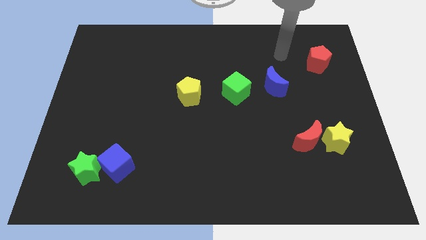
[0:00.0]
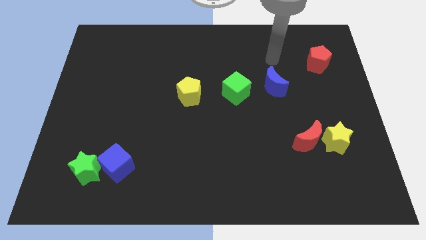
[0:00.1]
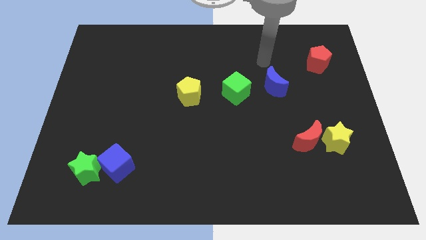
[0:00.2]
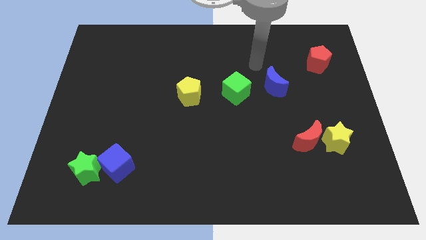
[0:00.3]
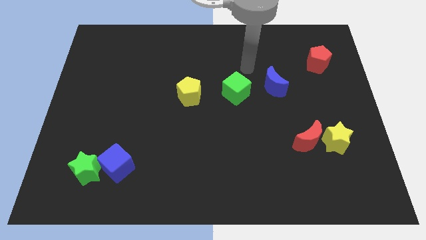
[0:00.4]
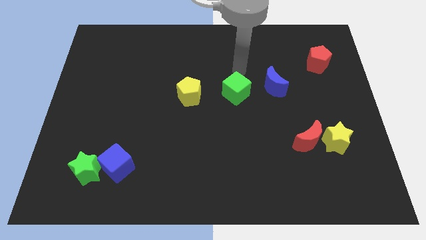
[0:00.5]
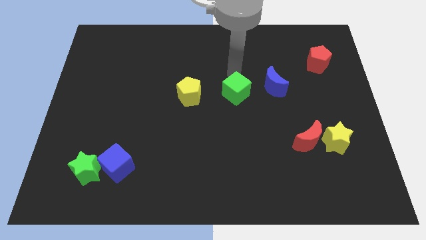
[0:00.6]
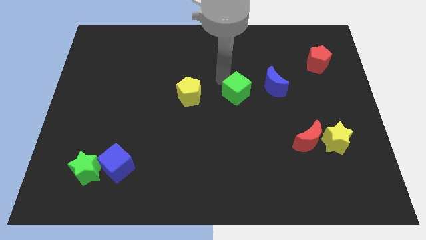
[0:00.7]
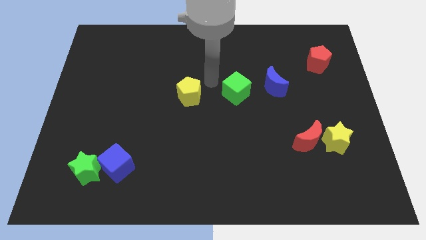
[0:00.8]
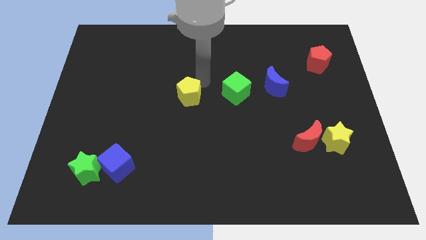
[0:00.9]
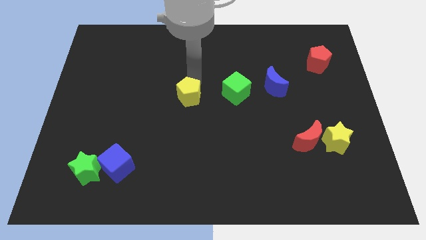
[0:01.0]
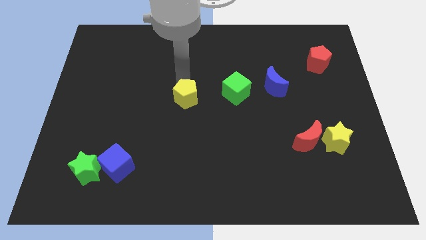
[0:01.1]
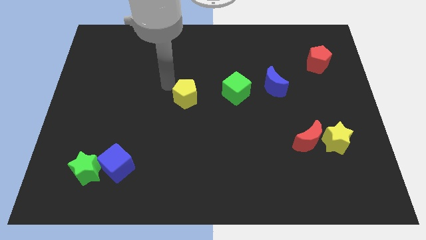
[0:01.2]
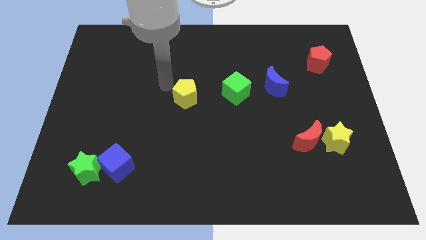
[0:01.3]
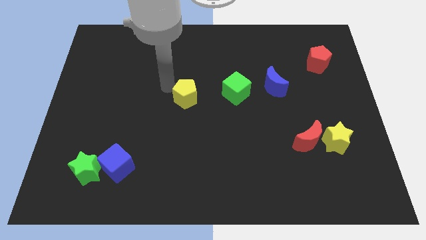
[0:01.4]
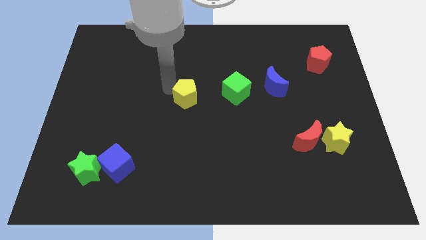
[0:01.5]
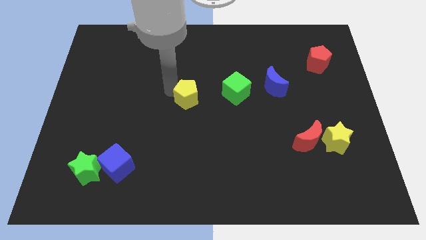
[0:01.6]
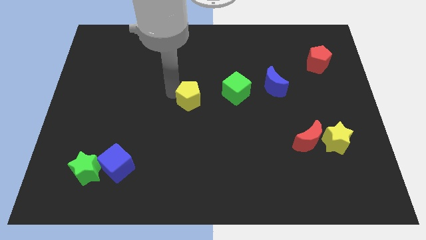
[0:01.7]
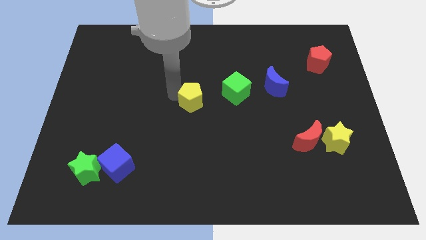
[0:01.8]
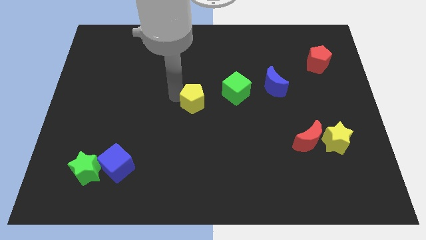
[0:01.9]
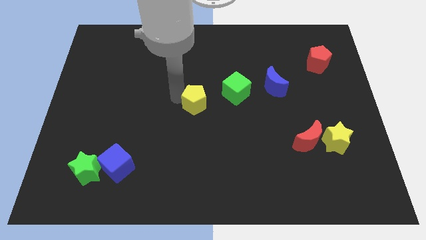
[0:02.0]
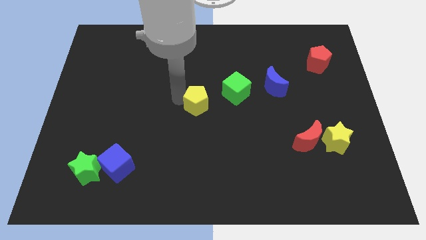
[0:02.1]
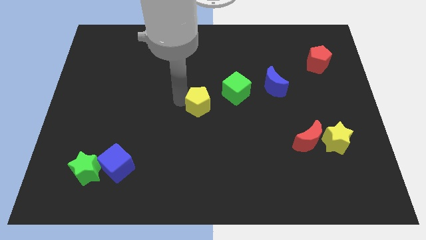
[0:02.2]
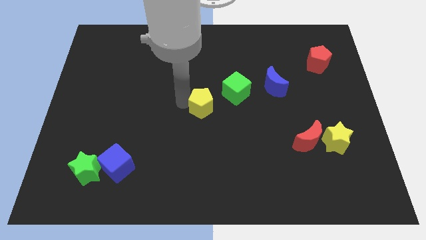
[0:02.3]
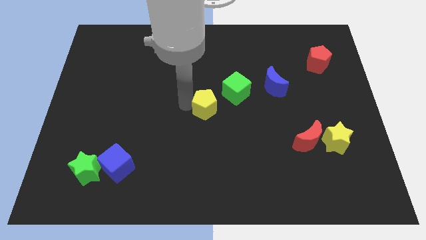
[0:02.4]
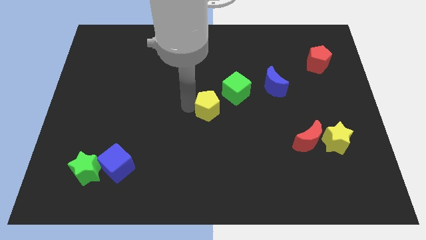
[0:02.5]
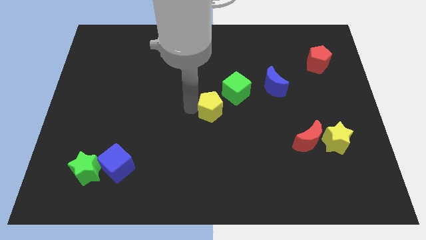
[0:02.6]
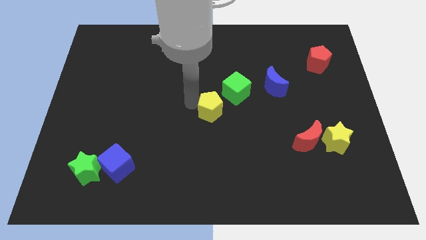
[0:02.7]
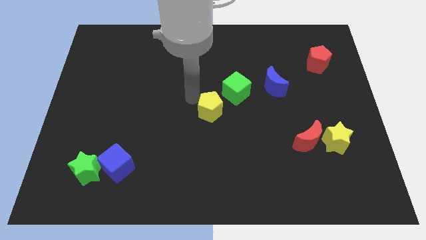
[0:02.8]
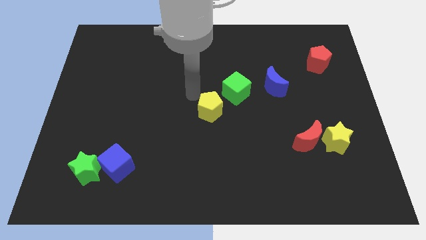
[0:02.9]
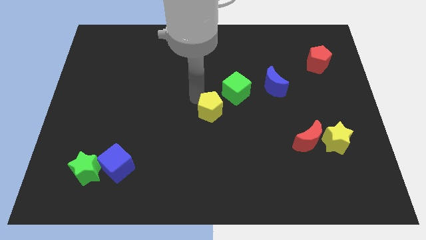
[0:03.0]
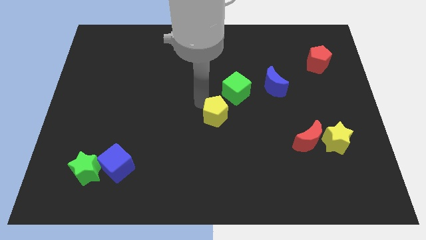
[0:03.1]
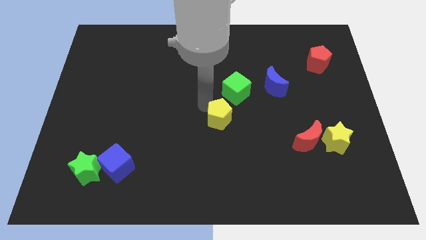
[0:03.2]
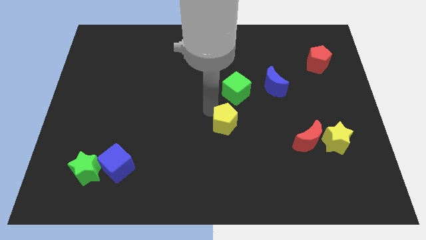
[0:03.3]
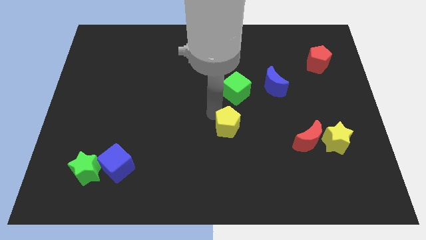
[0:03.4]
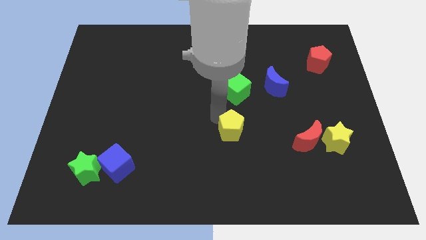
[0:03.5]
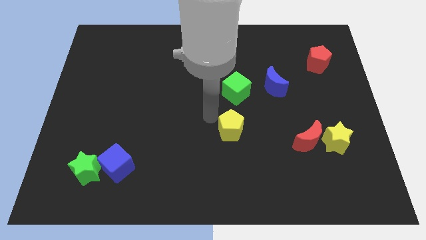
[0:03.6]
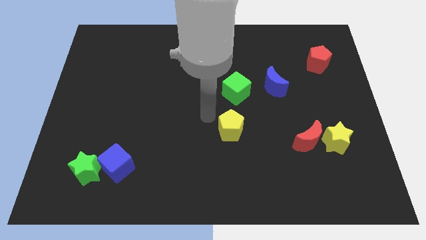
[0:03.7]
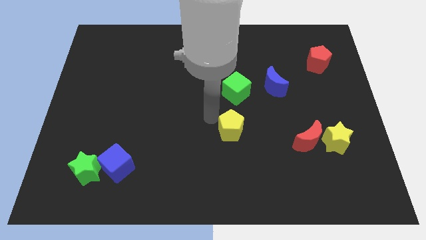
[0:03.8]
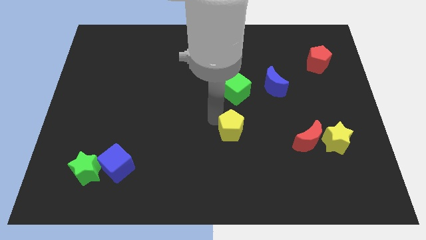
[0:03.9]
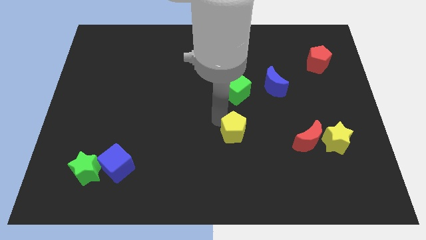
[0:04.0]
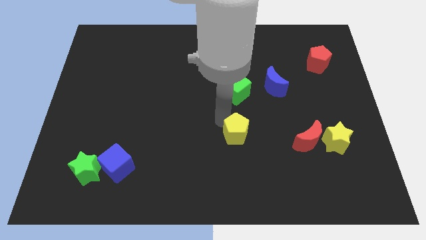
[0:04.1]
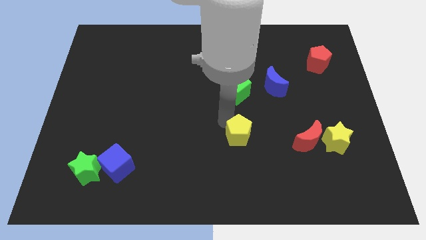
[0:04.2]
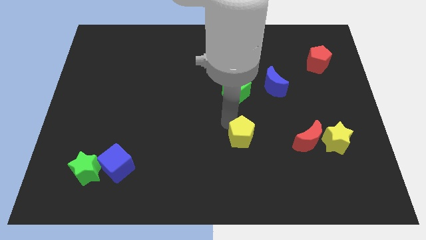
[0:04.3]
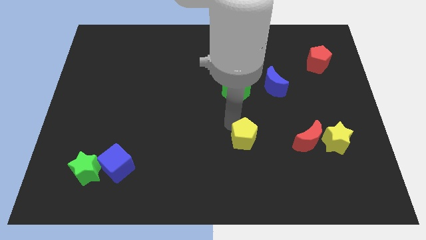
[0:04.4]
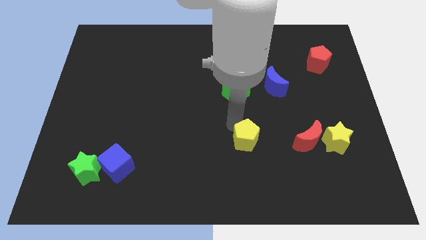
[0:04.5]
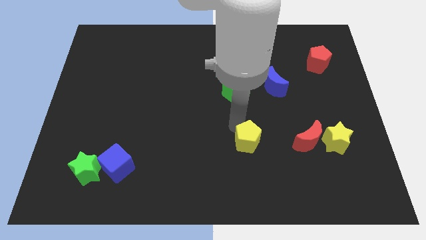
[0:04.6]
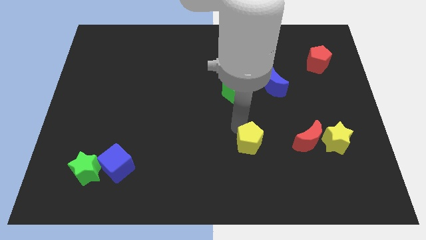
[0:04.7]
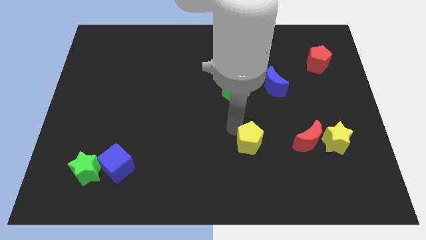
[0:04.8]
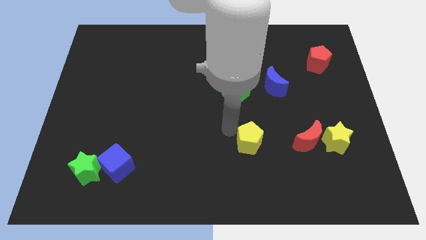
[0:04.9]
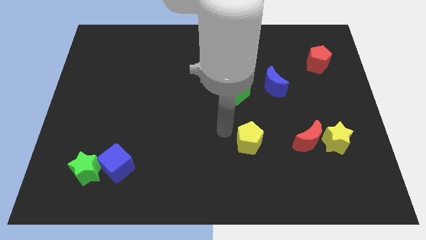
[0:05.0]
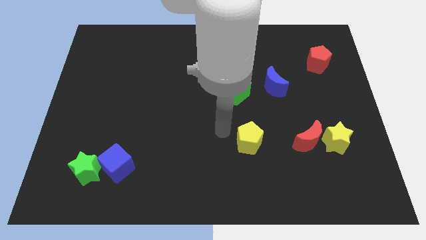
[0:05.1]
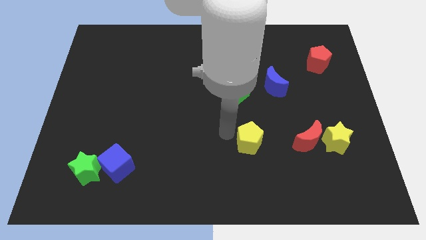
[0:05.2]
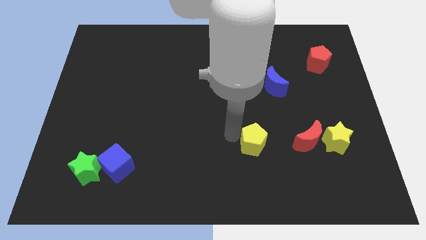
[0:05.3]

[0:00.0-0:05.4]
move the yellow pentagon diagonally downwards and to the right

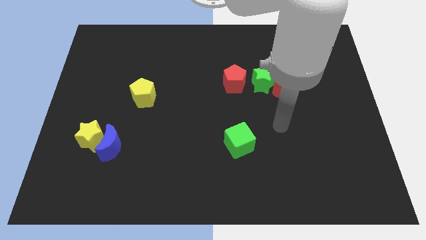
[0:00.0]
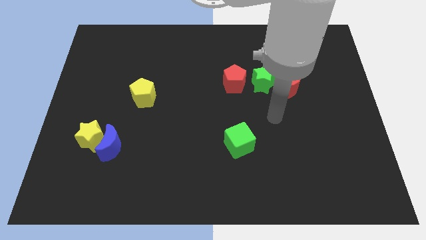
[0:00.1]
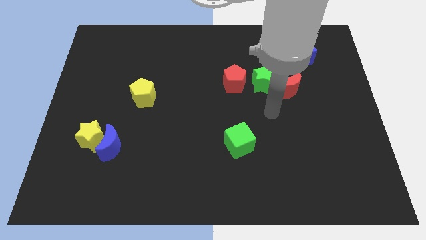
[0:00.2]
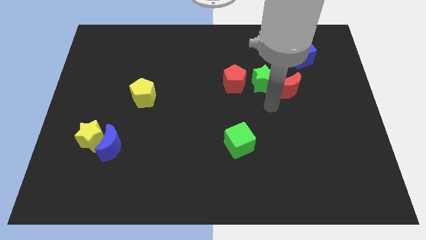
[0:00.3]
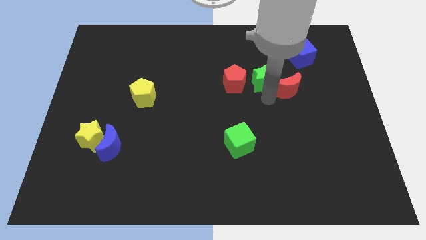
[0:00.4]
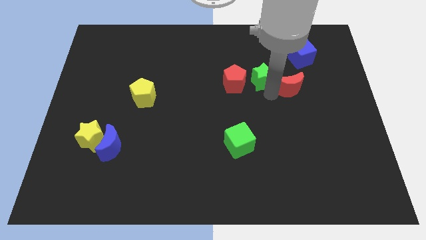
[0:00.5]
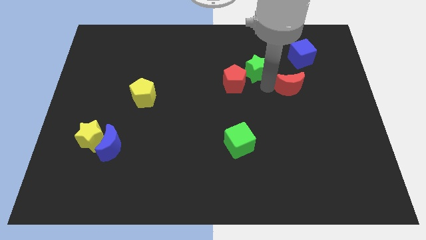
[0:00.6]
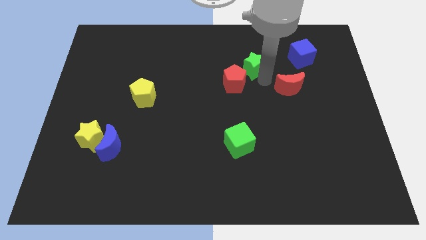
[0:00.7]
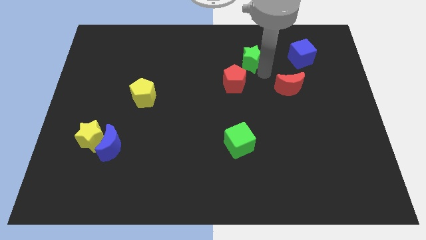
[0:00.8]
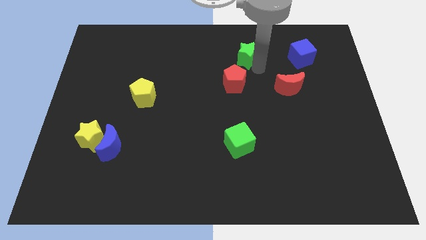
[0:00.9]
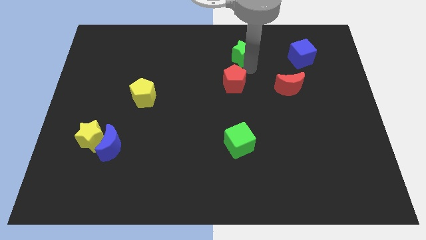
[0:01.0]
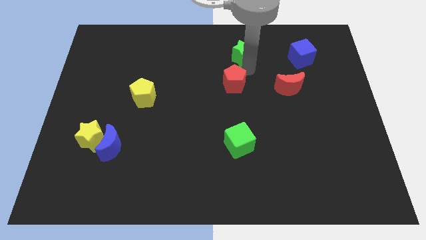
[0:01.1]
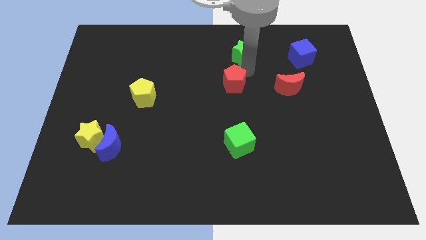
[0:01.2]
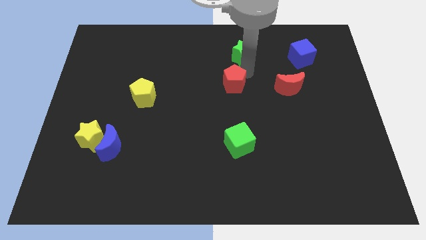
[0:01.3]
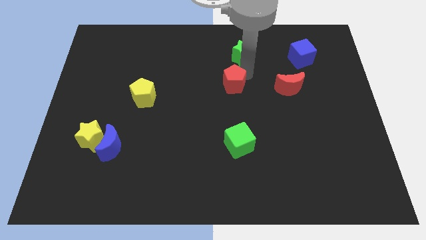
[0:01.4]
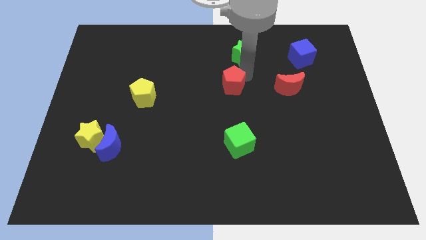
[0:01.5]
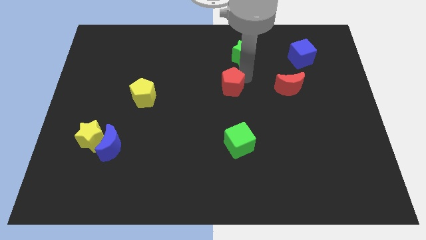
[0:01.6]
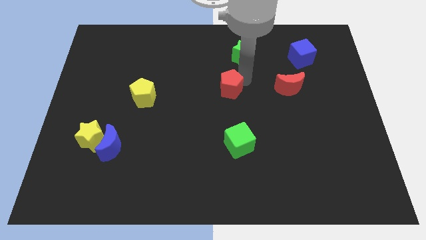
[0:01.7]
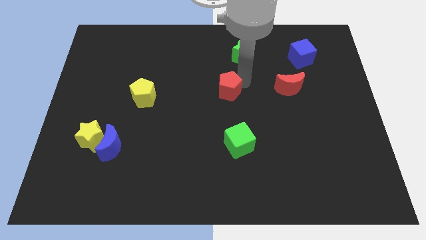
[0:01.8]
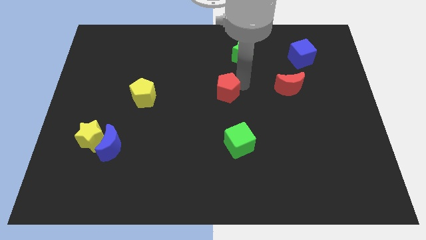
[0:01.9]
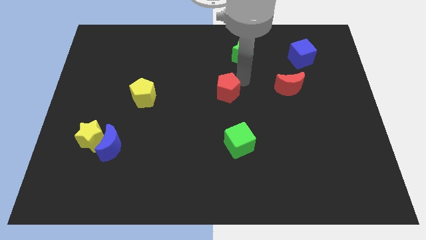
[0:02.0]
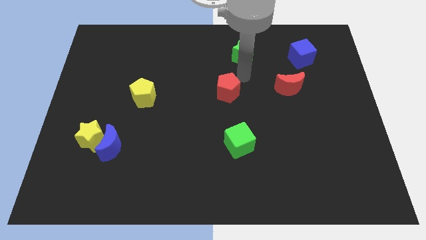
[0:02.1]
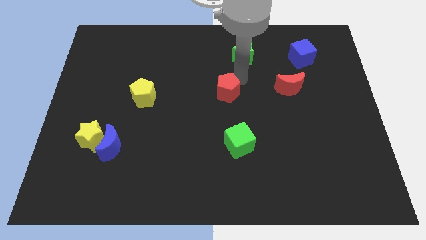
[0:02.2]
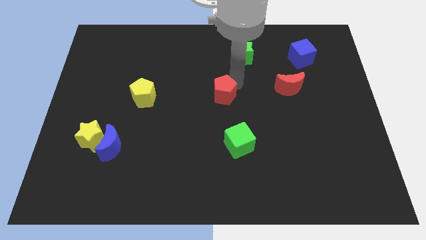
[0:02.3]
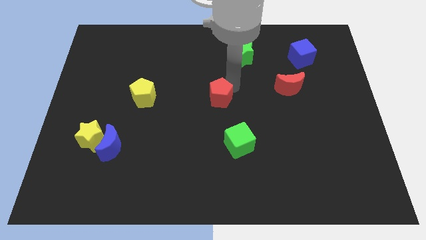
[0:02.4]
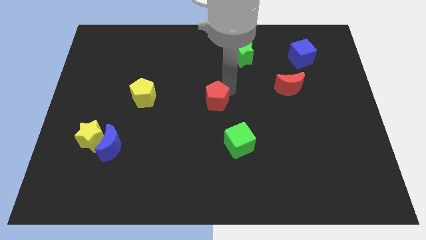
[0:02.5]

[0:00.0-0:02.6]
slightly push the red pentagon down and then left
